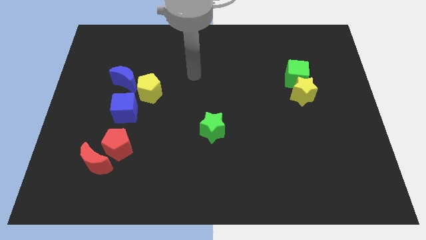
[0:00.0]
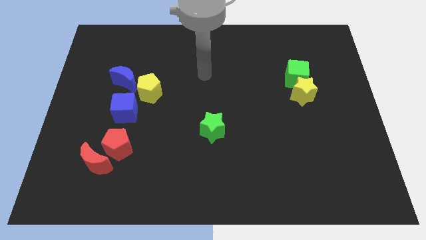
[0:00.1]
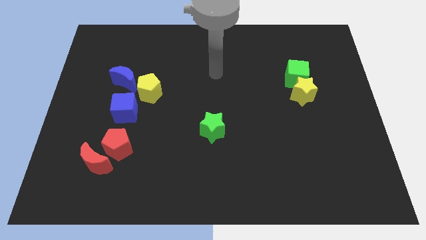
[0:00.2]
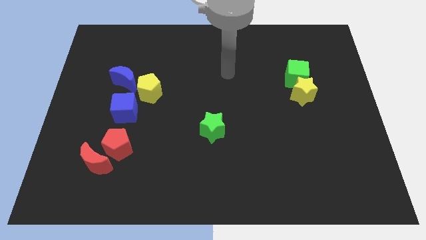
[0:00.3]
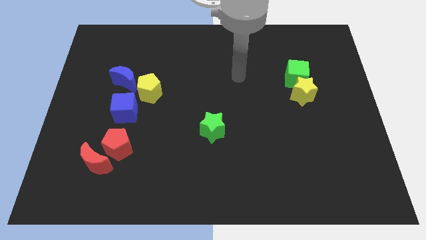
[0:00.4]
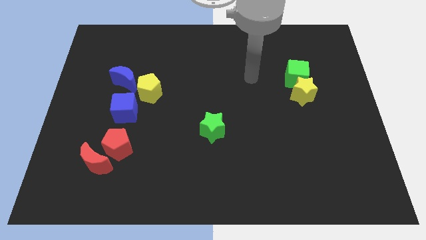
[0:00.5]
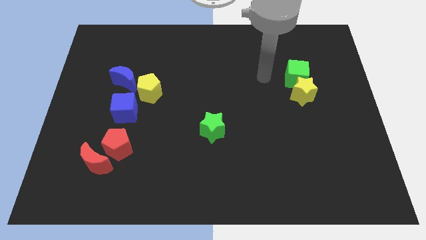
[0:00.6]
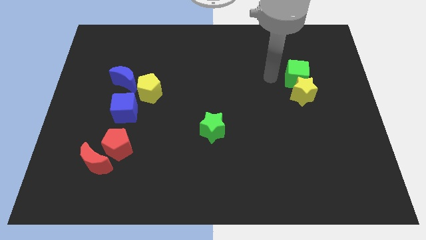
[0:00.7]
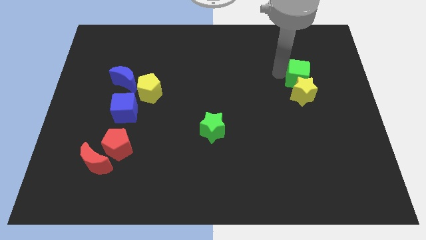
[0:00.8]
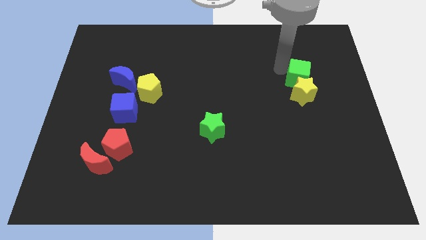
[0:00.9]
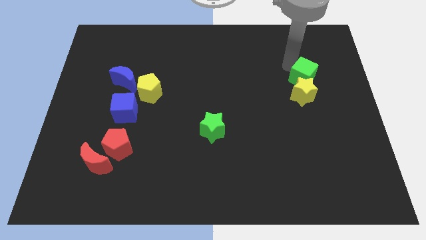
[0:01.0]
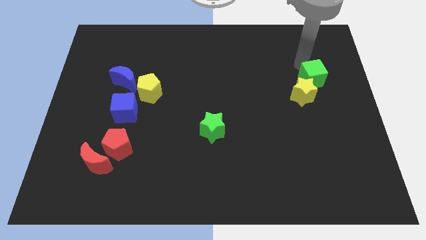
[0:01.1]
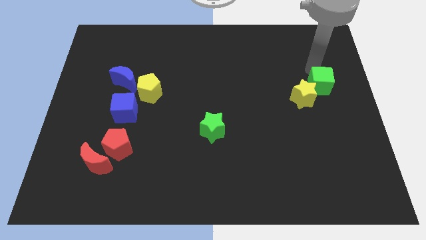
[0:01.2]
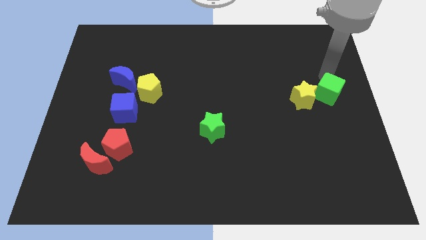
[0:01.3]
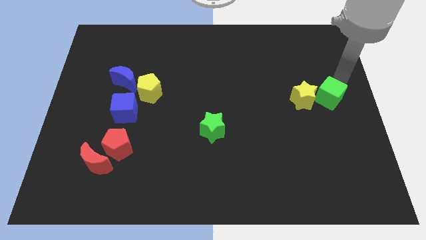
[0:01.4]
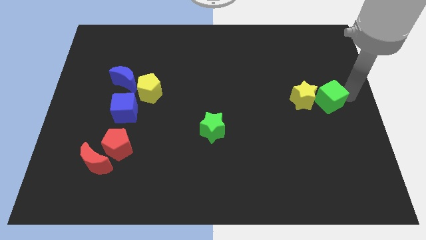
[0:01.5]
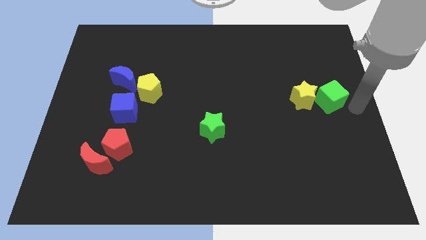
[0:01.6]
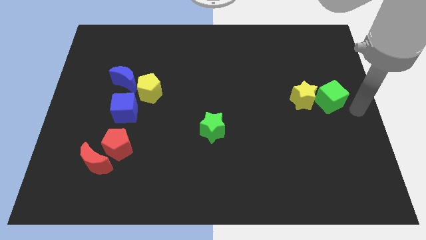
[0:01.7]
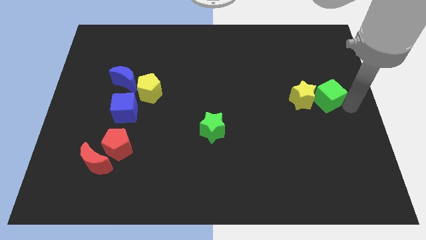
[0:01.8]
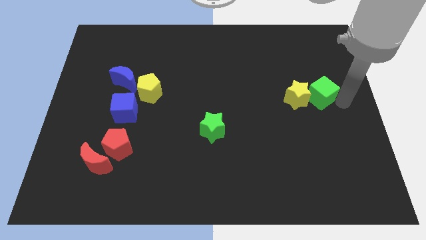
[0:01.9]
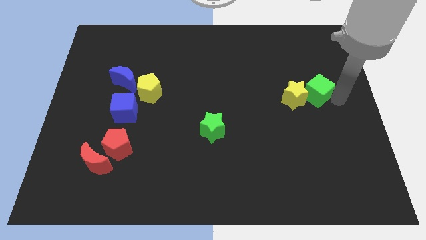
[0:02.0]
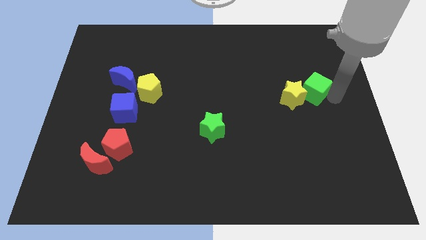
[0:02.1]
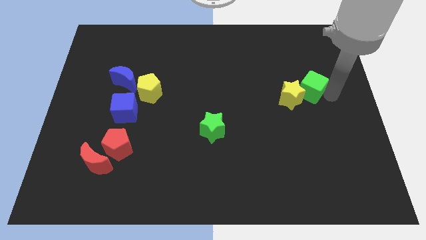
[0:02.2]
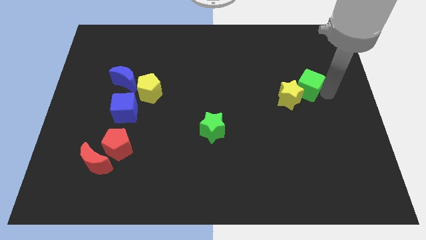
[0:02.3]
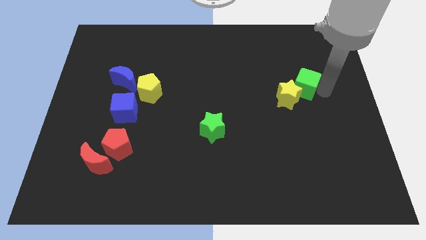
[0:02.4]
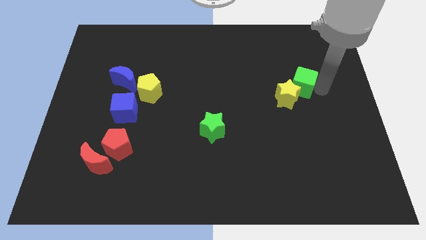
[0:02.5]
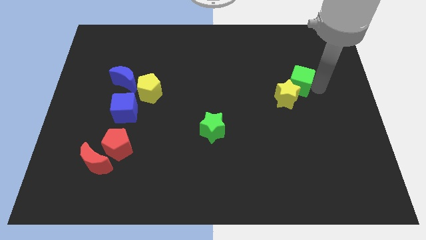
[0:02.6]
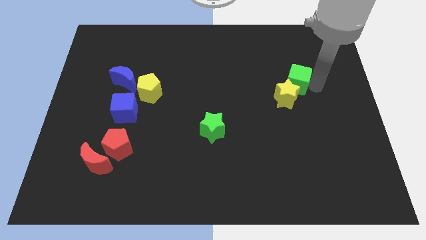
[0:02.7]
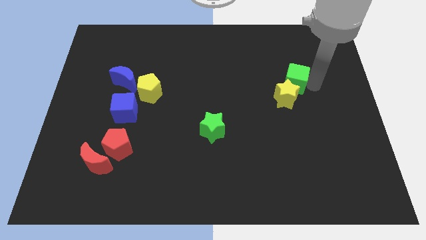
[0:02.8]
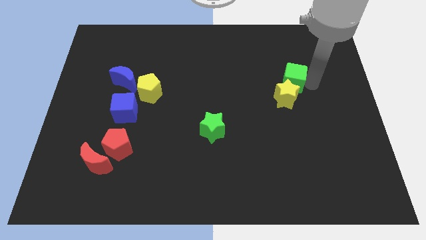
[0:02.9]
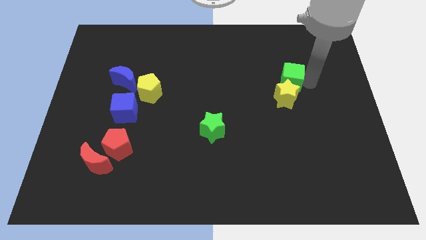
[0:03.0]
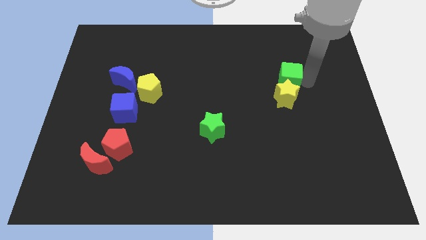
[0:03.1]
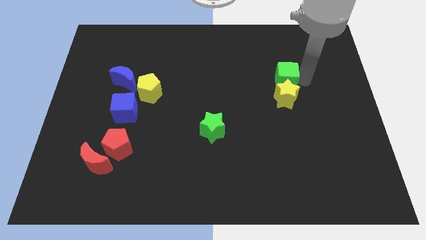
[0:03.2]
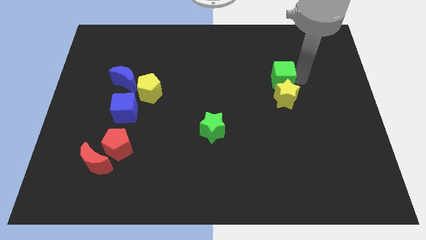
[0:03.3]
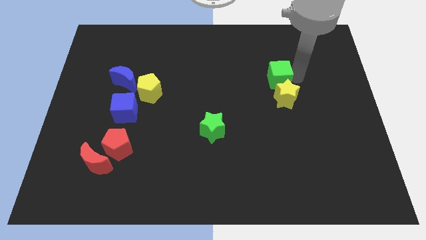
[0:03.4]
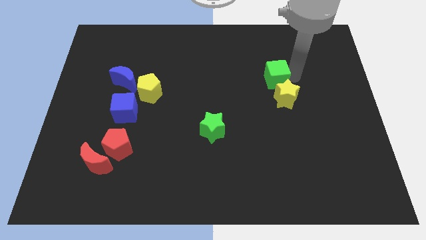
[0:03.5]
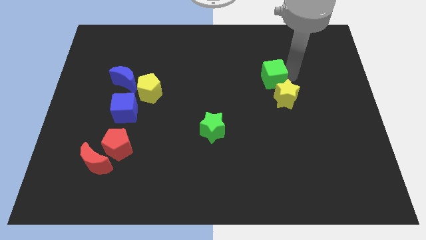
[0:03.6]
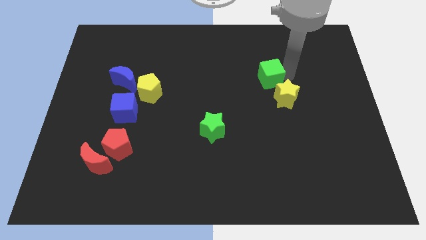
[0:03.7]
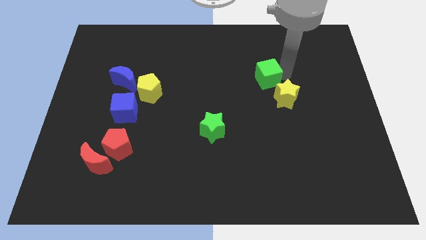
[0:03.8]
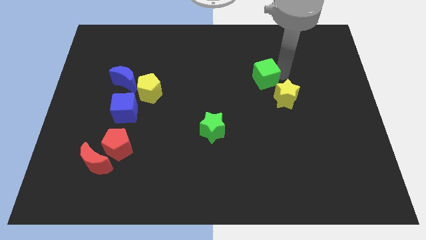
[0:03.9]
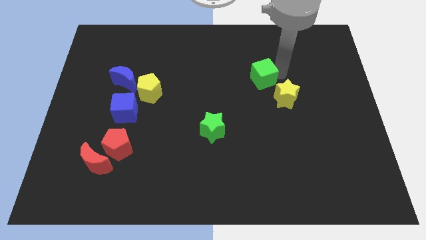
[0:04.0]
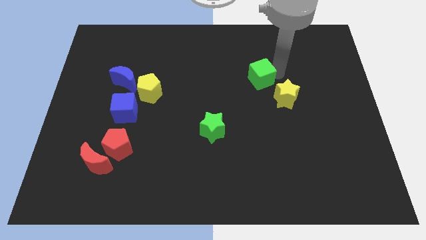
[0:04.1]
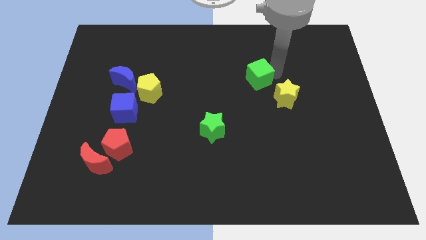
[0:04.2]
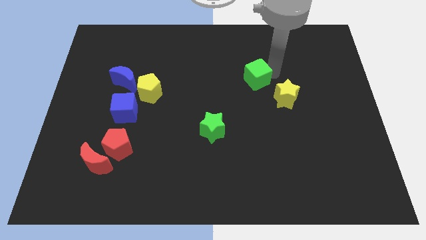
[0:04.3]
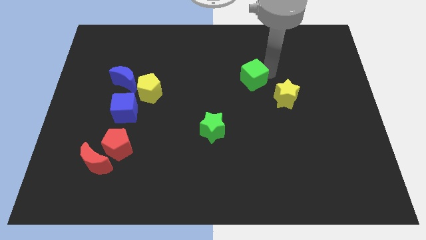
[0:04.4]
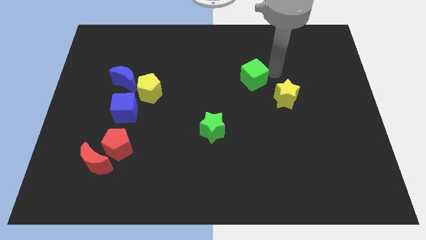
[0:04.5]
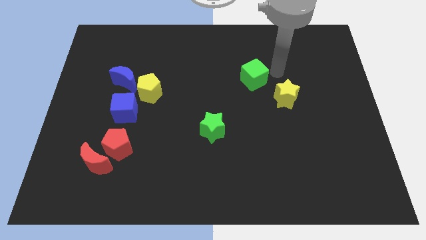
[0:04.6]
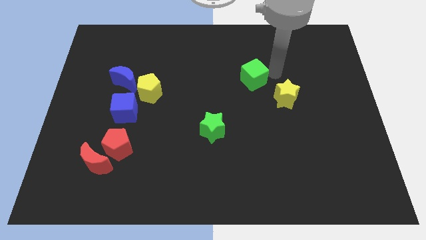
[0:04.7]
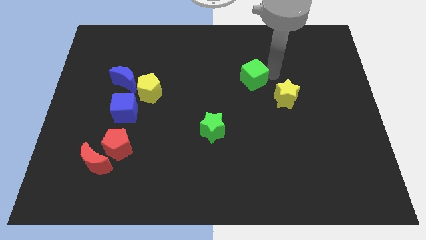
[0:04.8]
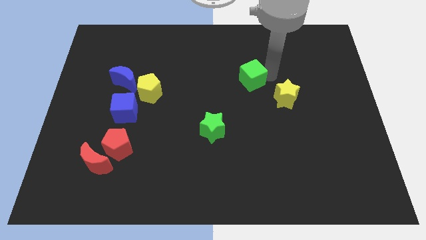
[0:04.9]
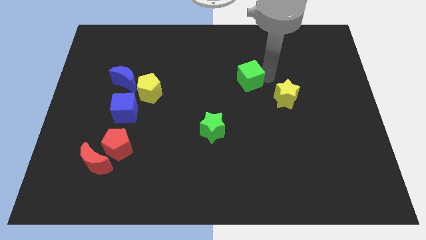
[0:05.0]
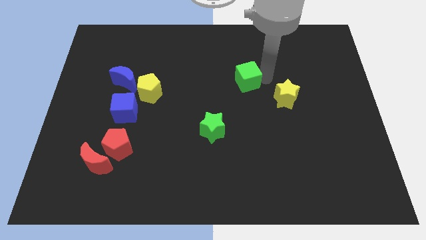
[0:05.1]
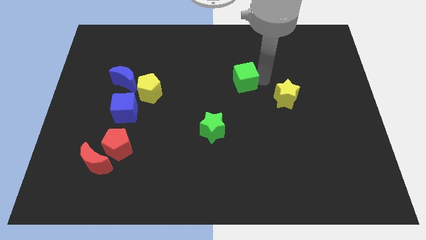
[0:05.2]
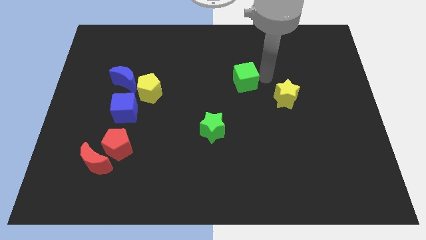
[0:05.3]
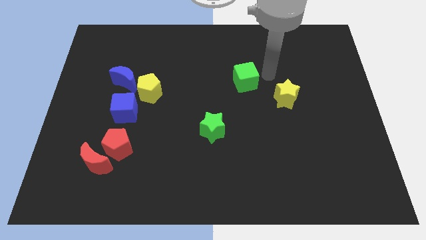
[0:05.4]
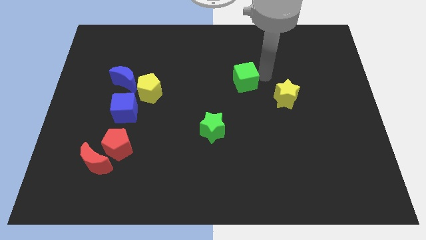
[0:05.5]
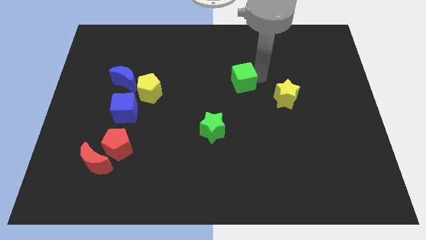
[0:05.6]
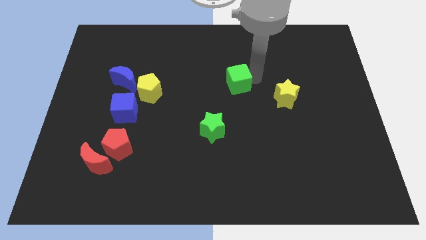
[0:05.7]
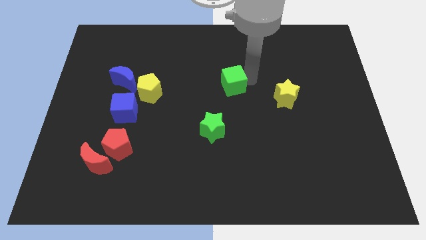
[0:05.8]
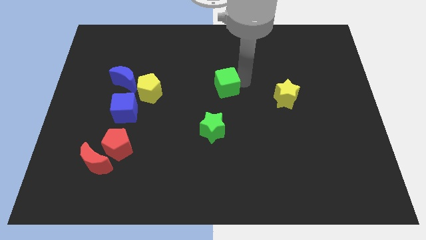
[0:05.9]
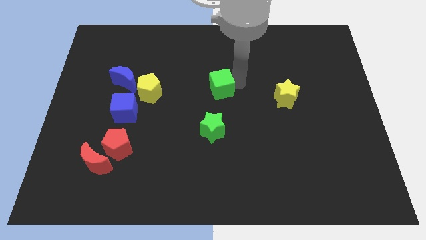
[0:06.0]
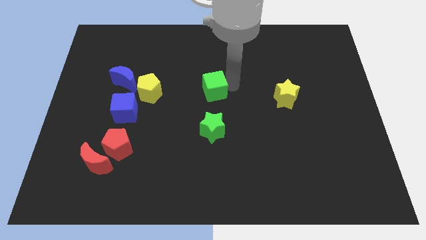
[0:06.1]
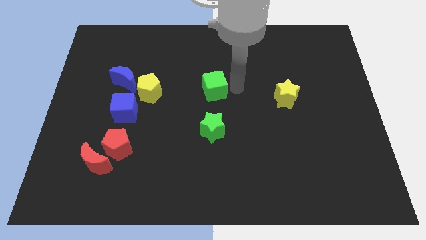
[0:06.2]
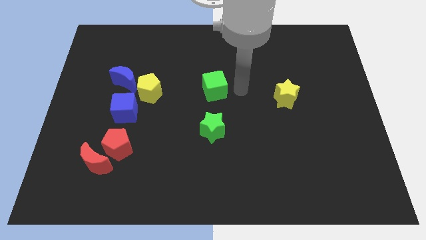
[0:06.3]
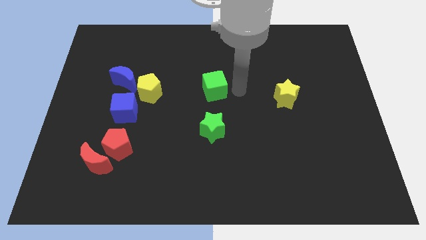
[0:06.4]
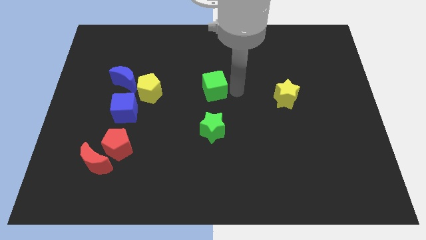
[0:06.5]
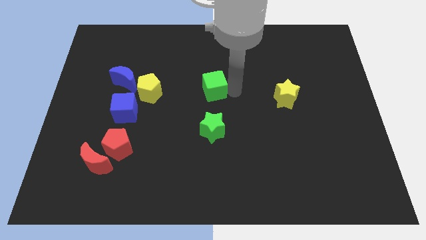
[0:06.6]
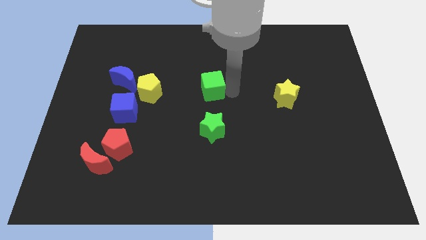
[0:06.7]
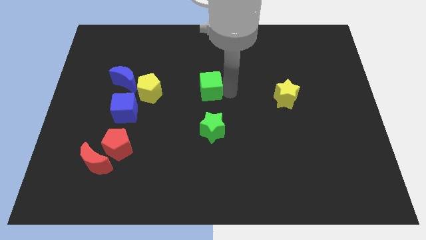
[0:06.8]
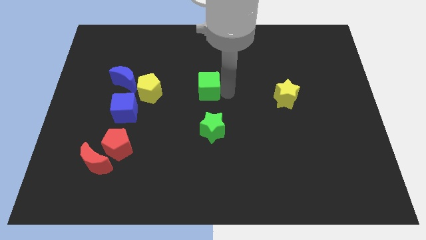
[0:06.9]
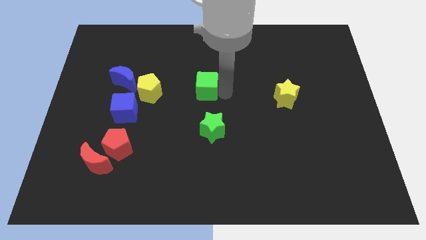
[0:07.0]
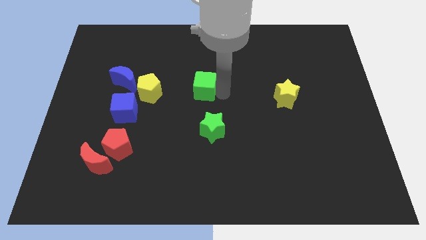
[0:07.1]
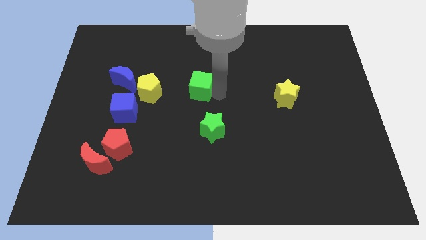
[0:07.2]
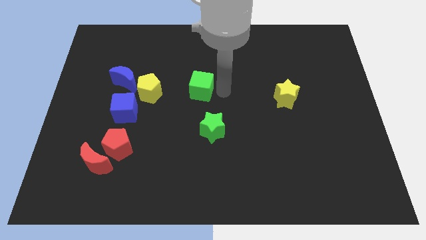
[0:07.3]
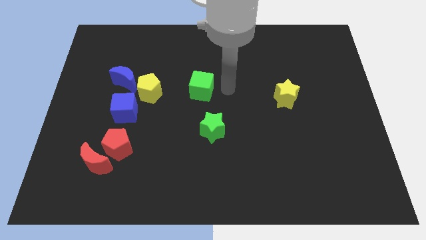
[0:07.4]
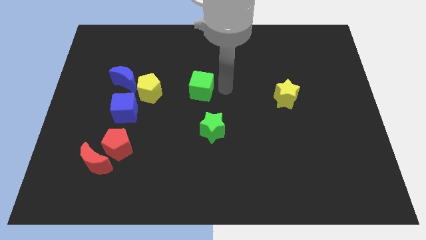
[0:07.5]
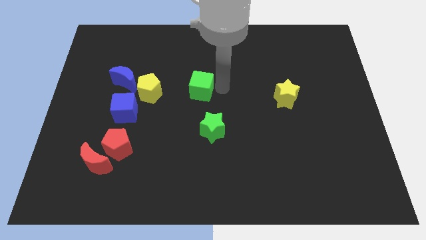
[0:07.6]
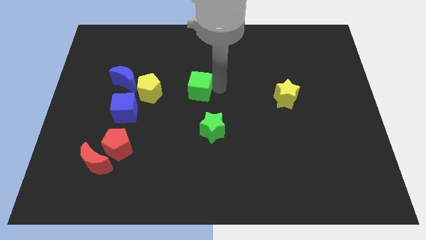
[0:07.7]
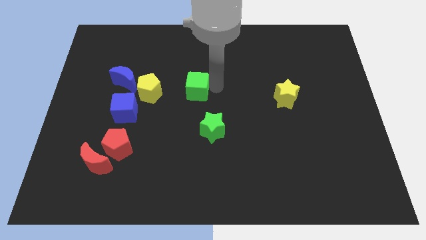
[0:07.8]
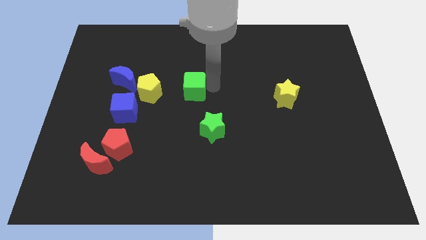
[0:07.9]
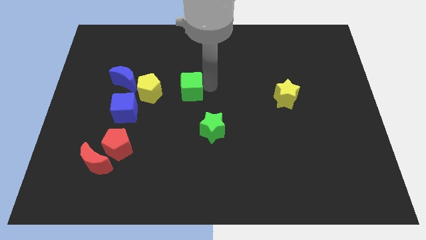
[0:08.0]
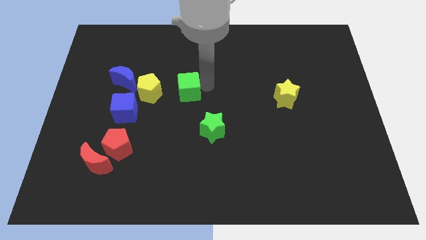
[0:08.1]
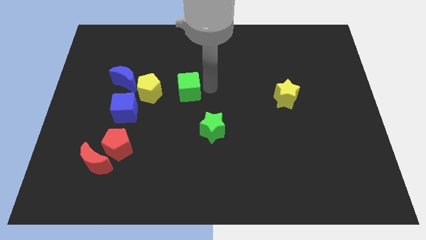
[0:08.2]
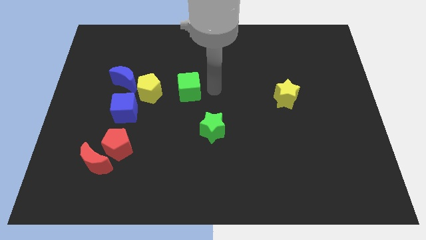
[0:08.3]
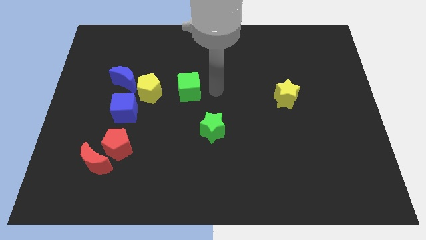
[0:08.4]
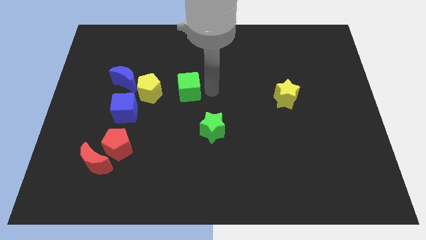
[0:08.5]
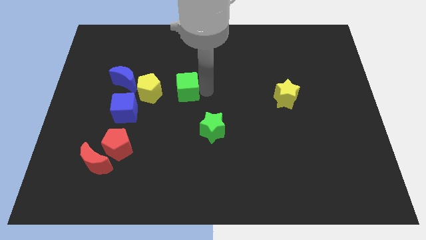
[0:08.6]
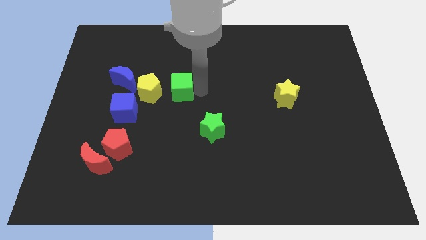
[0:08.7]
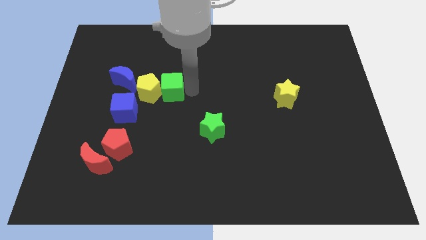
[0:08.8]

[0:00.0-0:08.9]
move the green cube towards the yellow pentagon
